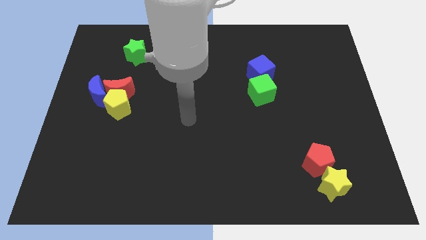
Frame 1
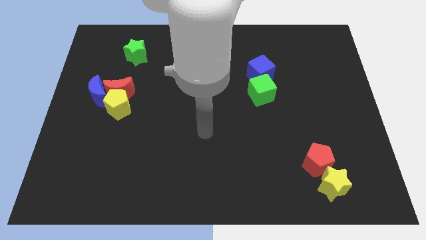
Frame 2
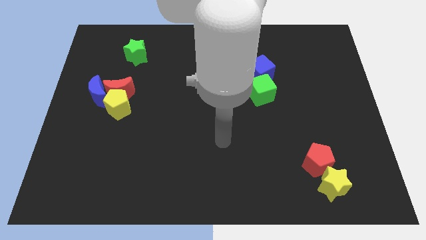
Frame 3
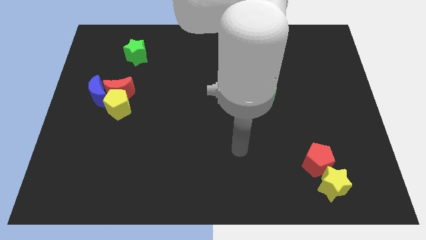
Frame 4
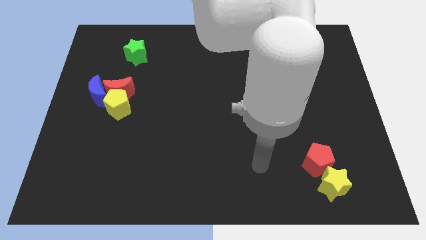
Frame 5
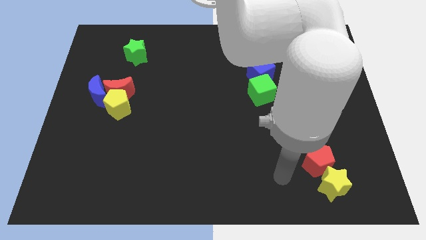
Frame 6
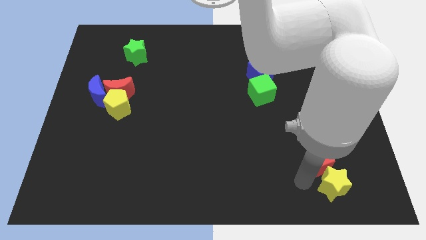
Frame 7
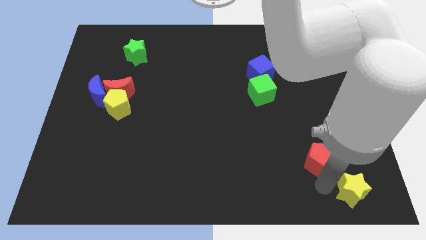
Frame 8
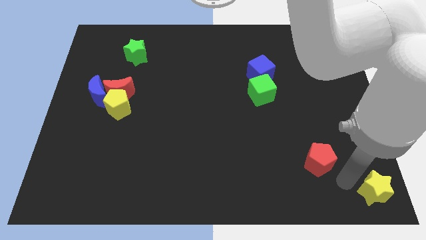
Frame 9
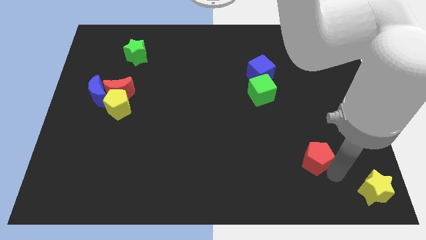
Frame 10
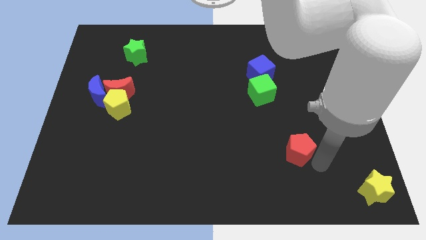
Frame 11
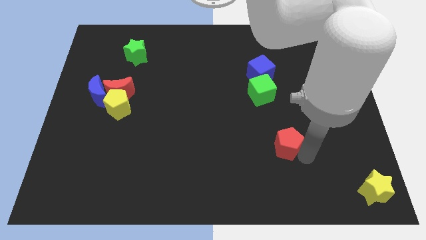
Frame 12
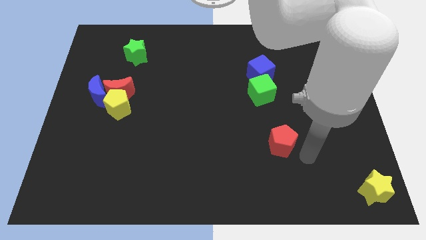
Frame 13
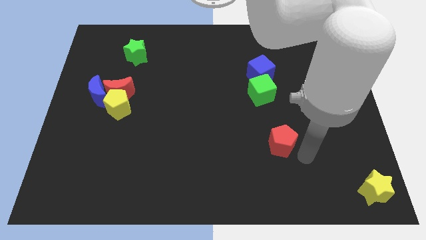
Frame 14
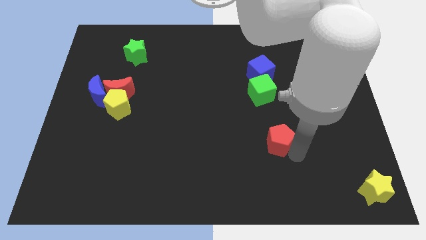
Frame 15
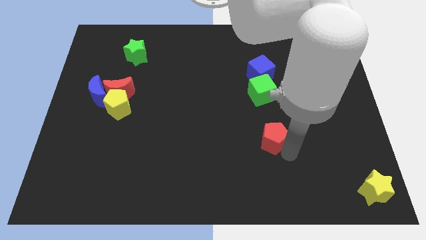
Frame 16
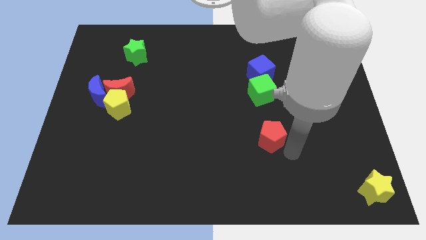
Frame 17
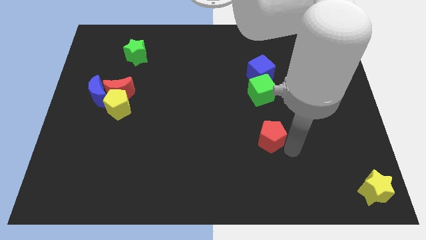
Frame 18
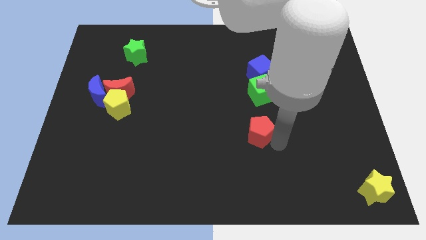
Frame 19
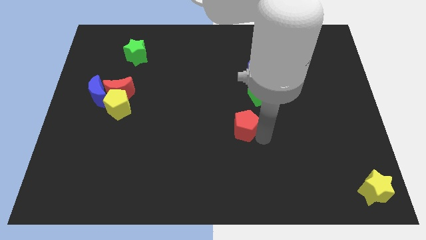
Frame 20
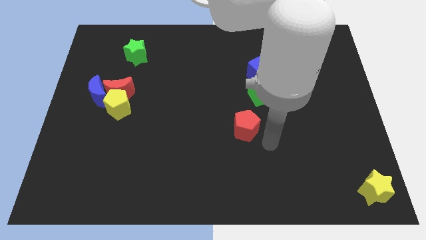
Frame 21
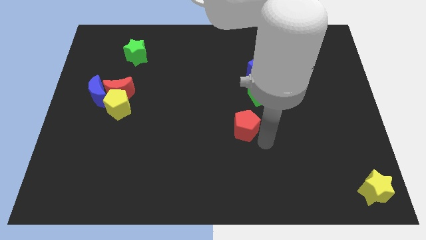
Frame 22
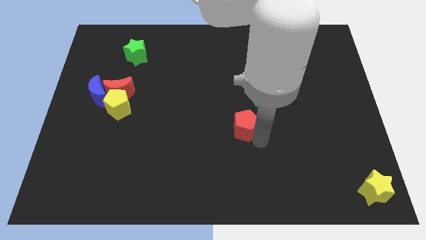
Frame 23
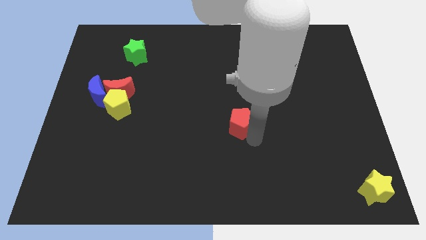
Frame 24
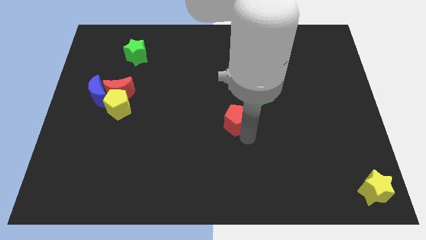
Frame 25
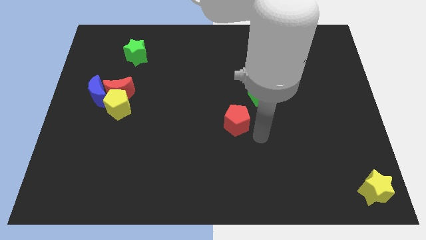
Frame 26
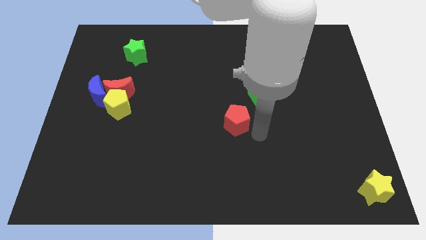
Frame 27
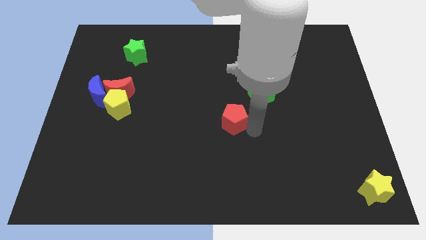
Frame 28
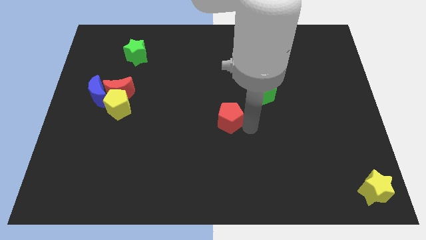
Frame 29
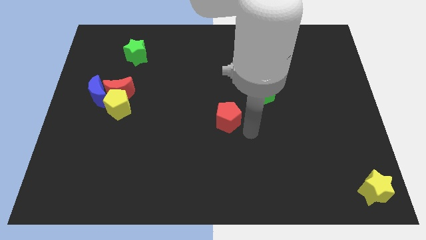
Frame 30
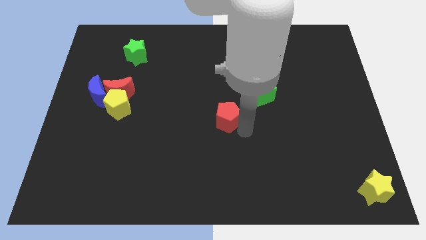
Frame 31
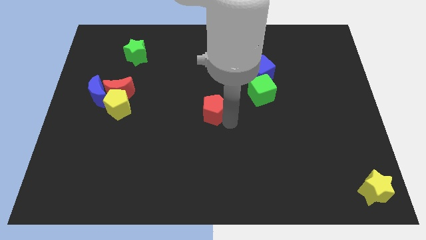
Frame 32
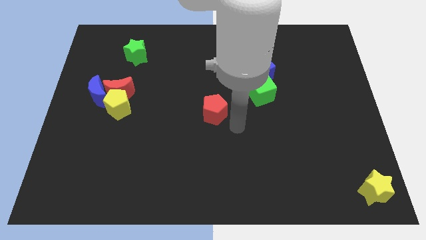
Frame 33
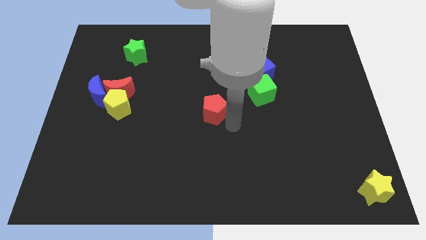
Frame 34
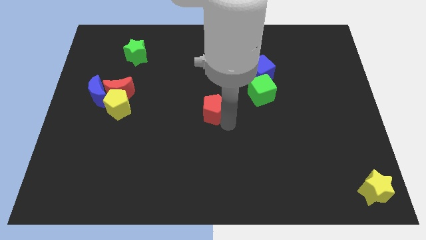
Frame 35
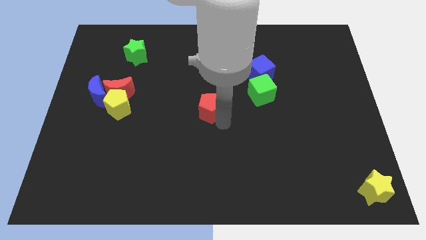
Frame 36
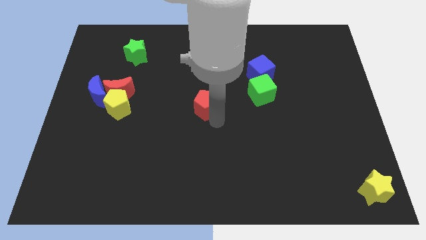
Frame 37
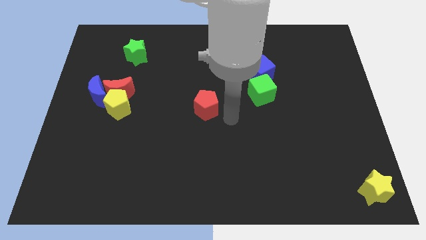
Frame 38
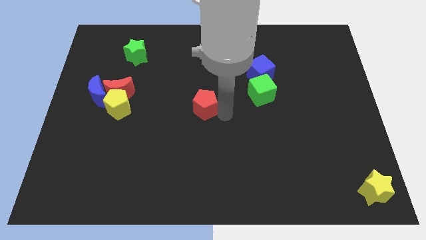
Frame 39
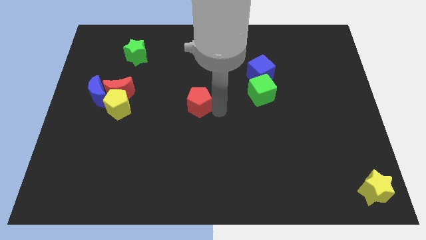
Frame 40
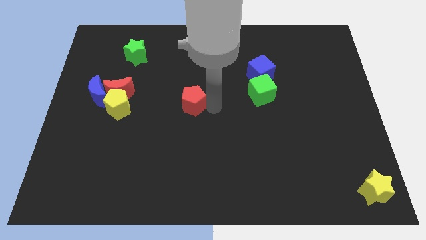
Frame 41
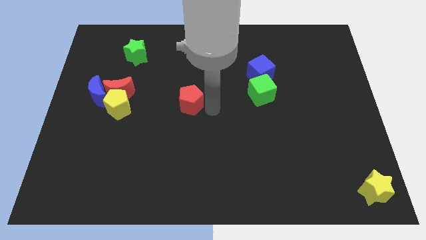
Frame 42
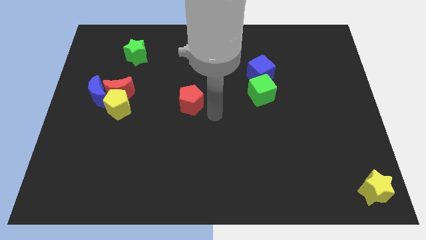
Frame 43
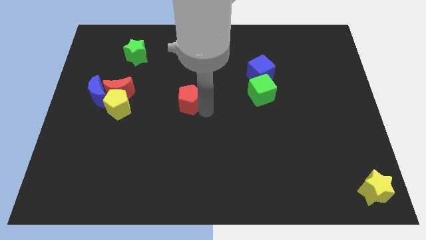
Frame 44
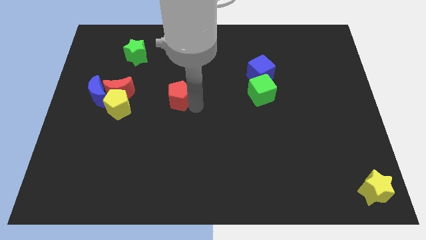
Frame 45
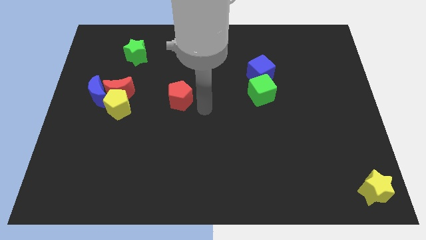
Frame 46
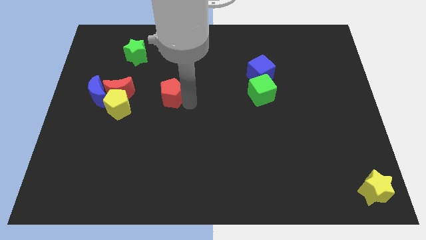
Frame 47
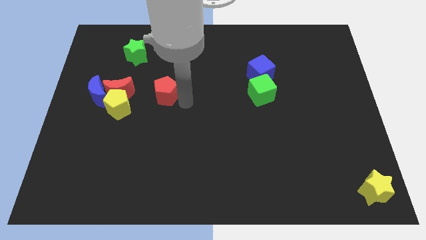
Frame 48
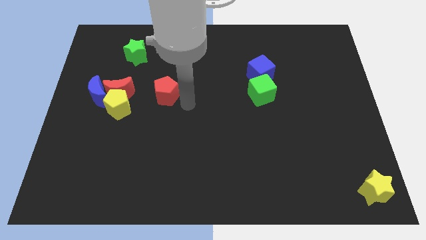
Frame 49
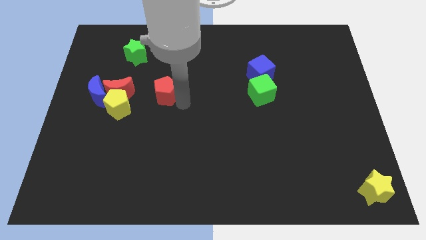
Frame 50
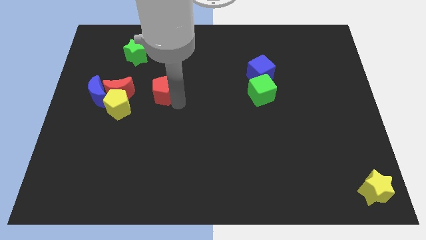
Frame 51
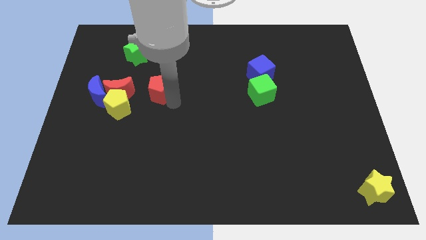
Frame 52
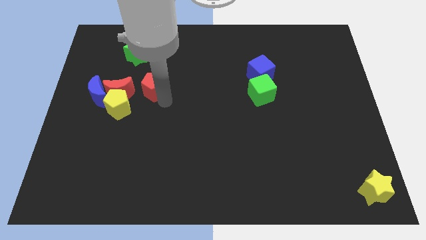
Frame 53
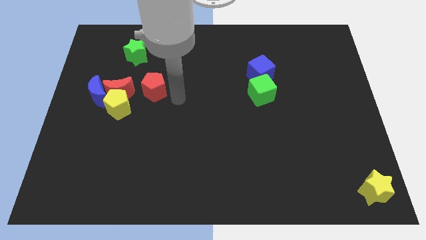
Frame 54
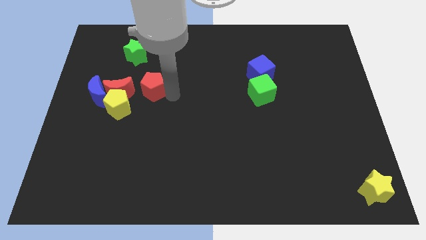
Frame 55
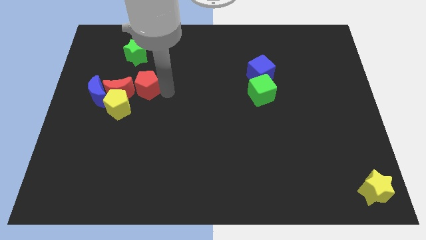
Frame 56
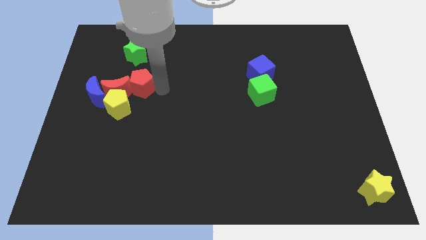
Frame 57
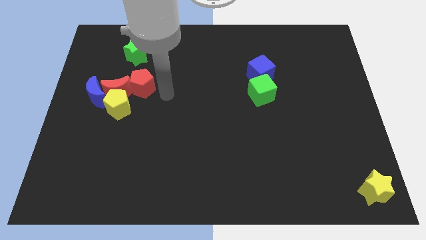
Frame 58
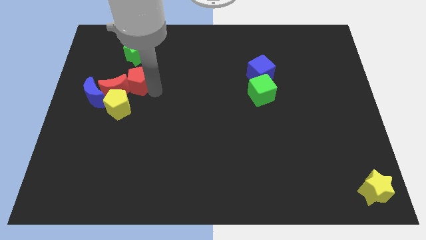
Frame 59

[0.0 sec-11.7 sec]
push the red pentagon diagonally up and to the right of the blue moon

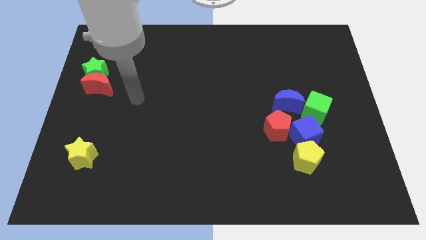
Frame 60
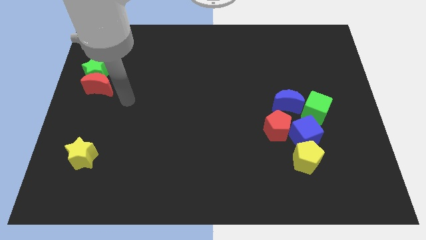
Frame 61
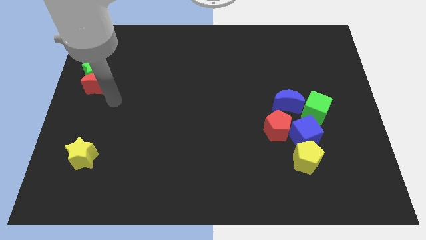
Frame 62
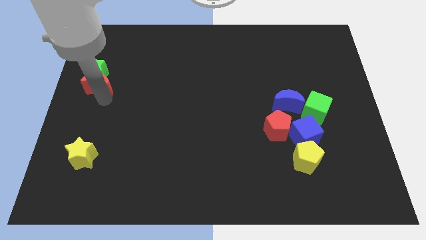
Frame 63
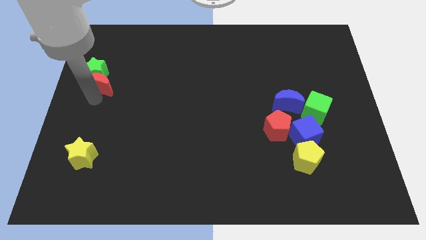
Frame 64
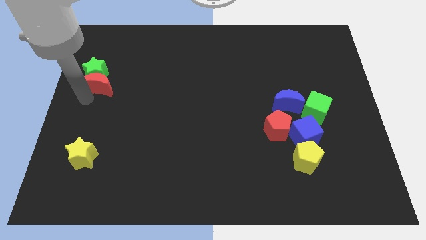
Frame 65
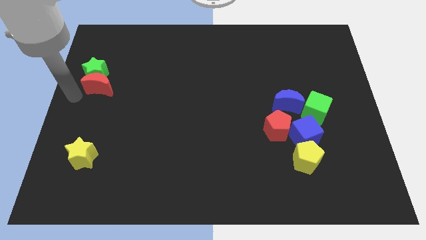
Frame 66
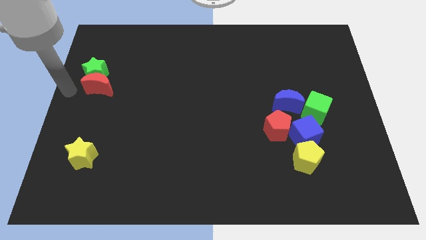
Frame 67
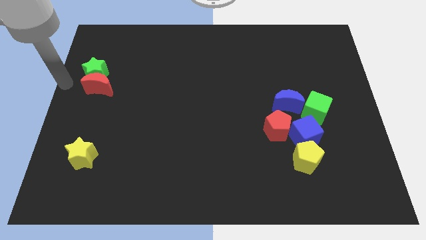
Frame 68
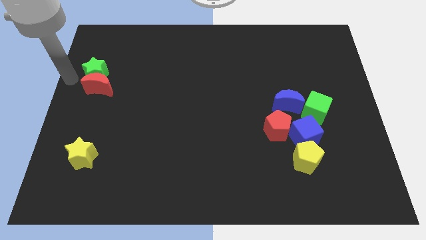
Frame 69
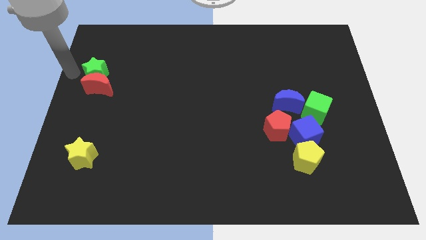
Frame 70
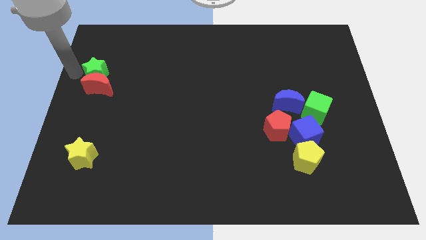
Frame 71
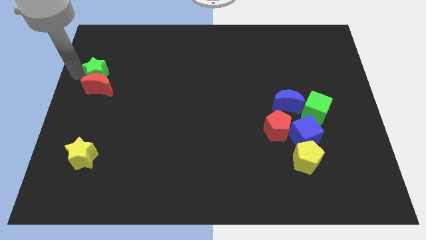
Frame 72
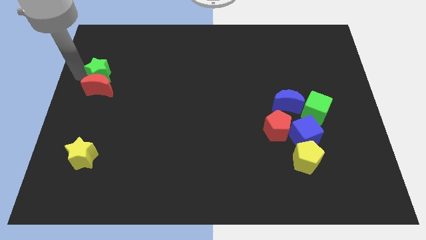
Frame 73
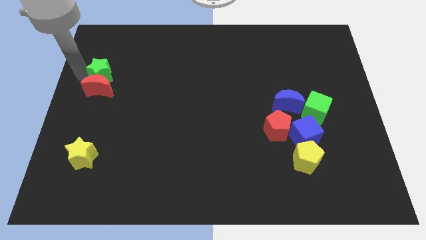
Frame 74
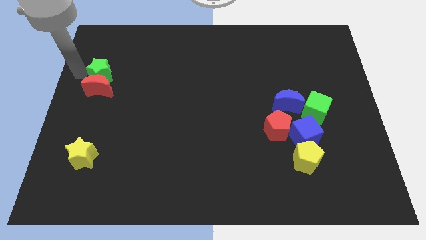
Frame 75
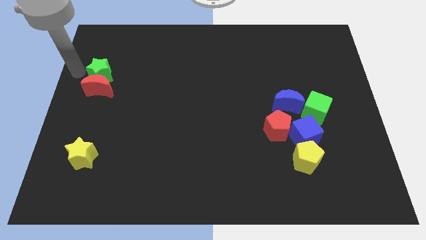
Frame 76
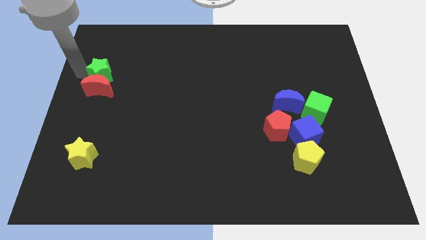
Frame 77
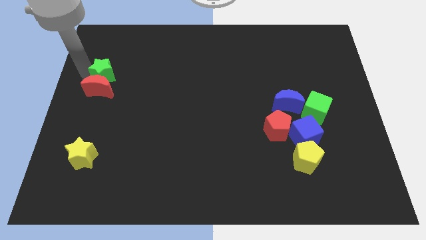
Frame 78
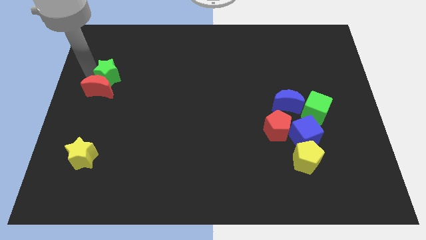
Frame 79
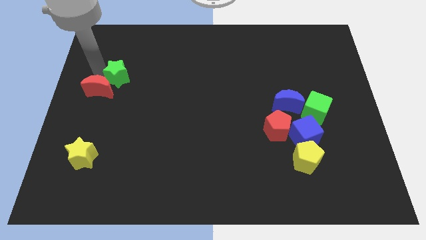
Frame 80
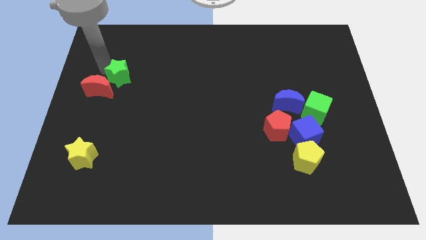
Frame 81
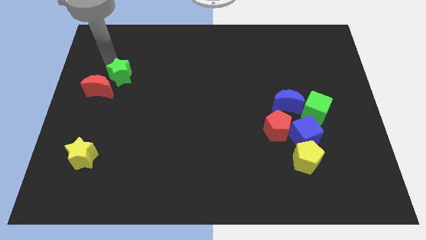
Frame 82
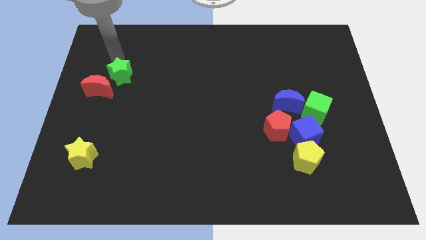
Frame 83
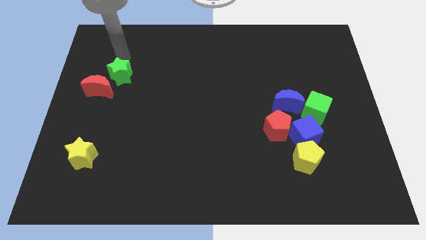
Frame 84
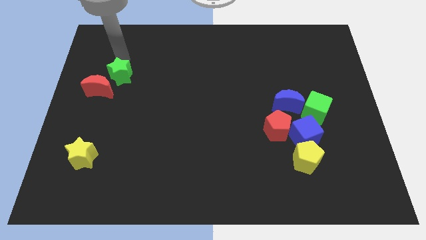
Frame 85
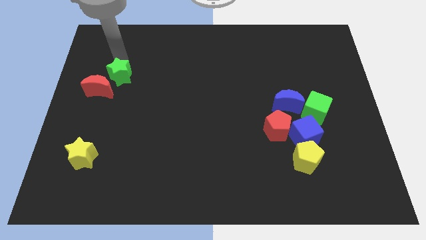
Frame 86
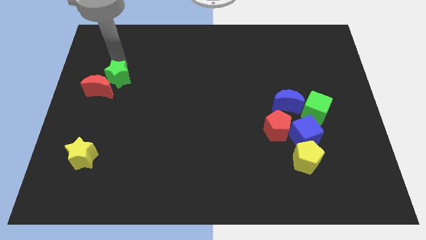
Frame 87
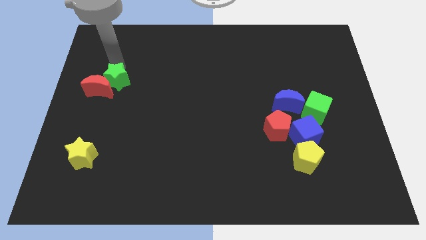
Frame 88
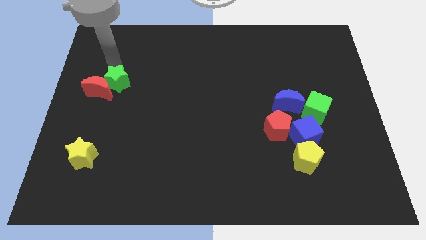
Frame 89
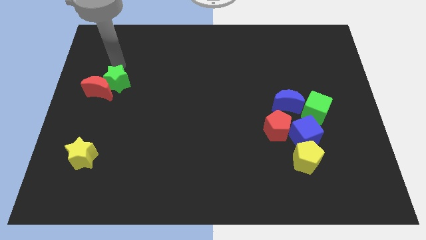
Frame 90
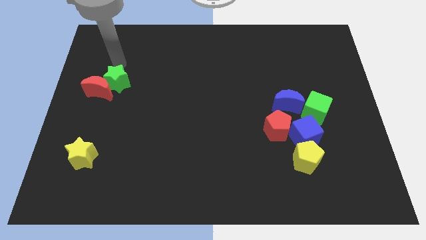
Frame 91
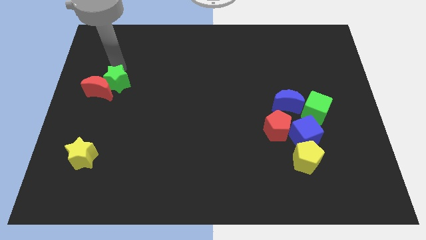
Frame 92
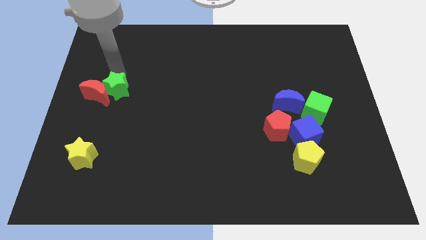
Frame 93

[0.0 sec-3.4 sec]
move the green star diagonally down and to the right of the red moon
